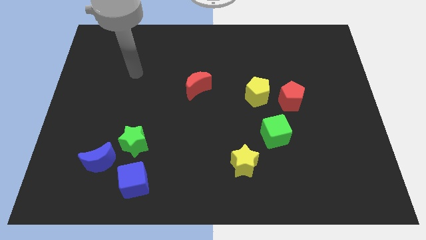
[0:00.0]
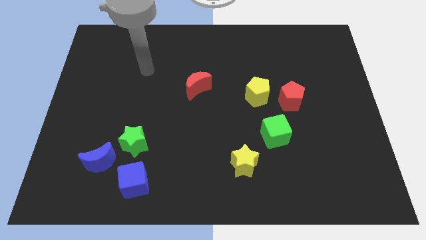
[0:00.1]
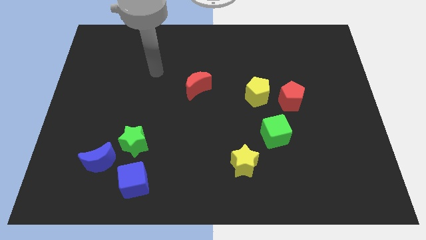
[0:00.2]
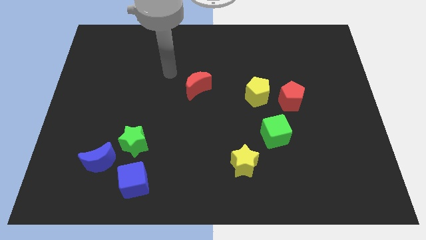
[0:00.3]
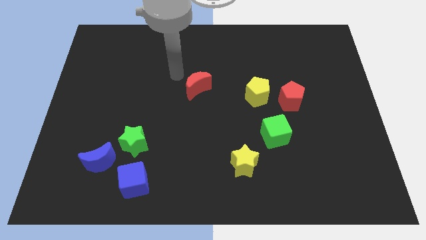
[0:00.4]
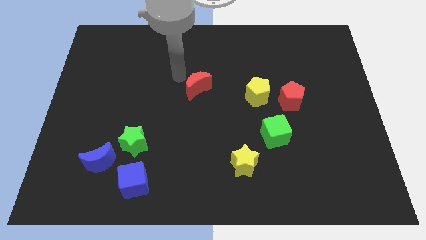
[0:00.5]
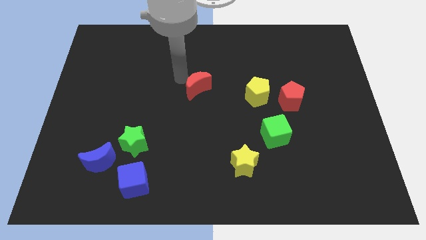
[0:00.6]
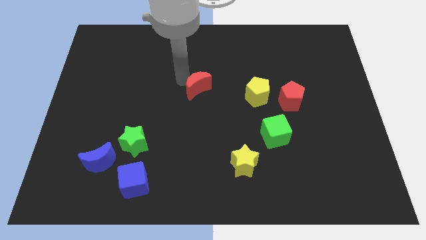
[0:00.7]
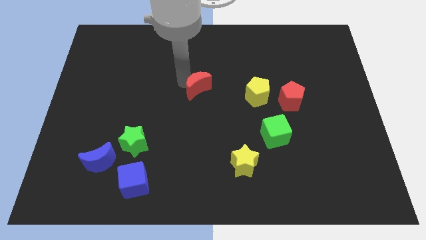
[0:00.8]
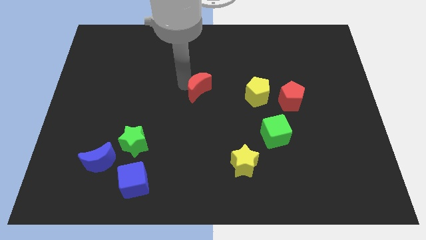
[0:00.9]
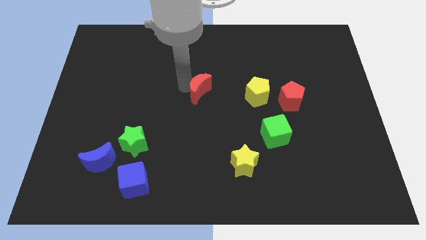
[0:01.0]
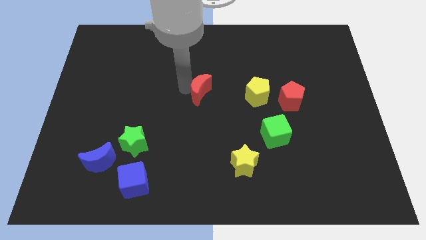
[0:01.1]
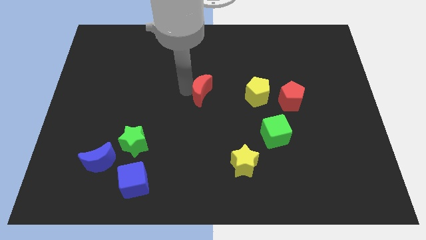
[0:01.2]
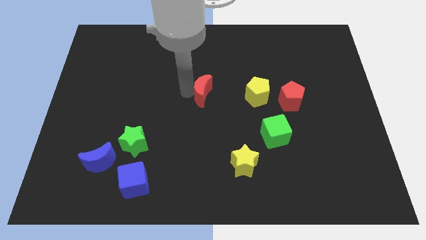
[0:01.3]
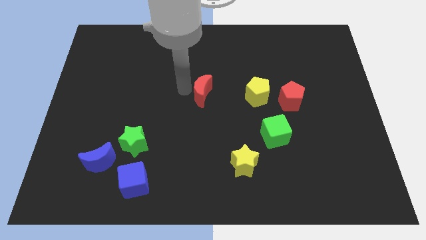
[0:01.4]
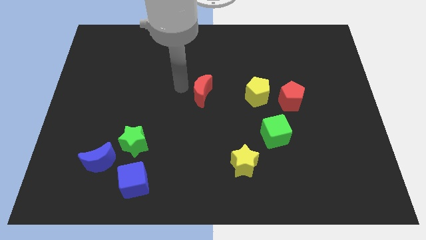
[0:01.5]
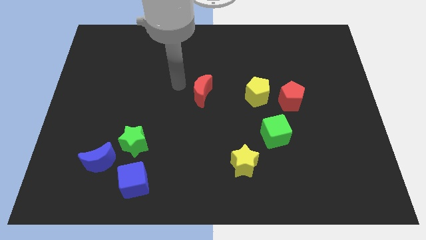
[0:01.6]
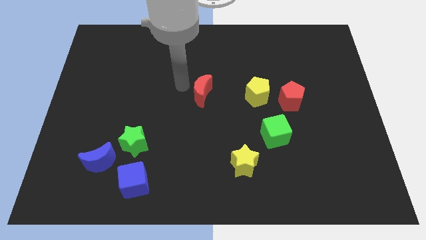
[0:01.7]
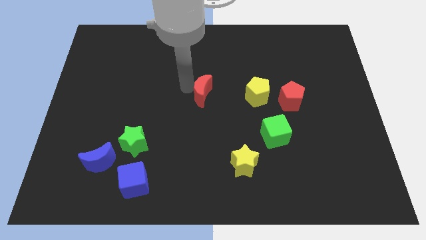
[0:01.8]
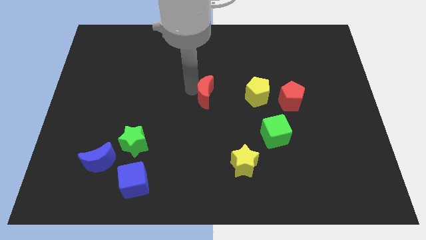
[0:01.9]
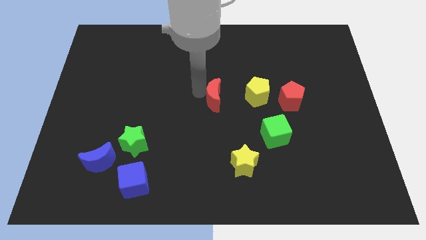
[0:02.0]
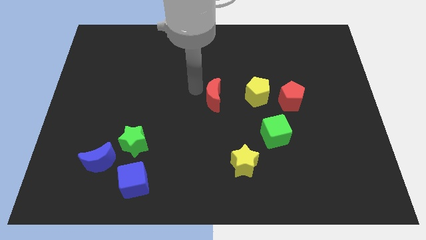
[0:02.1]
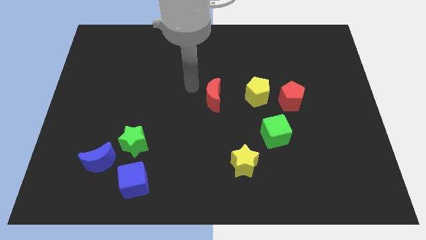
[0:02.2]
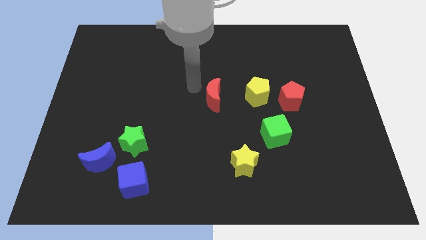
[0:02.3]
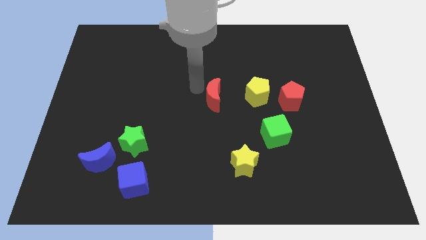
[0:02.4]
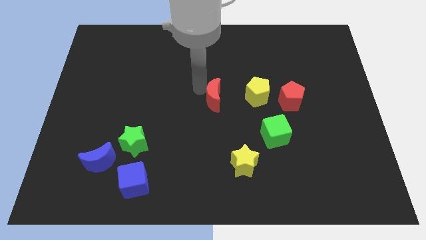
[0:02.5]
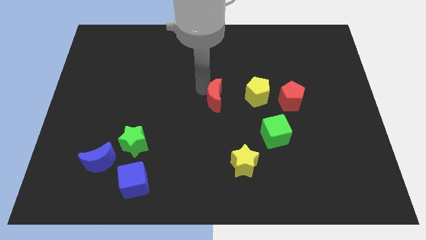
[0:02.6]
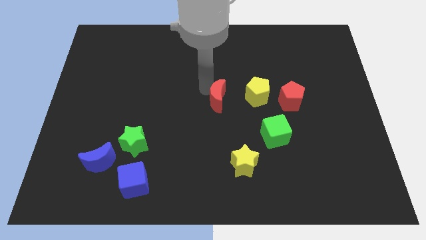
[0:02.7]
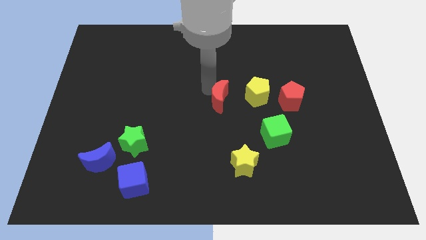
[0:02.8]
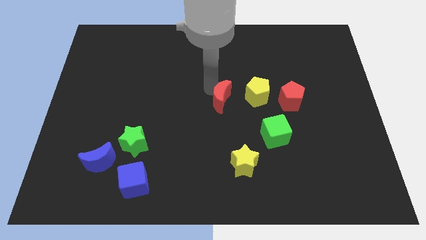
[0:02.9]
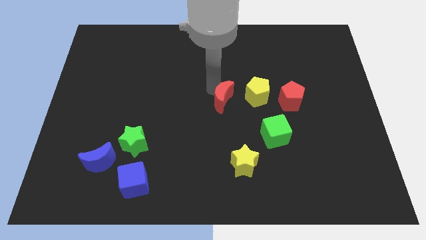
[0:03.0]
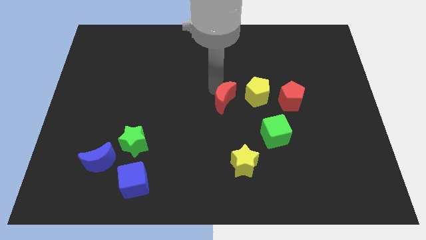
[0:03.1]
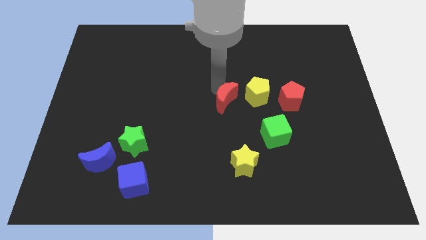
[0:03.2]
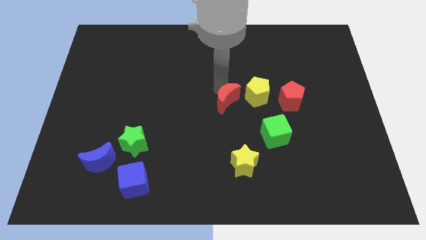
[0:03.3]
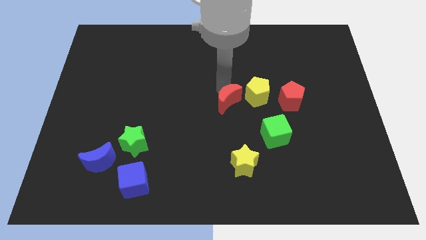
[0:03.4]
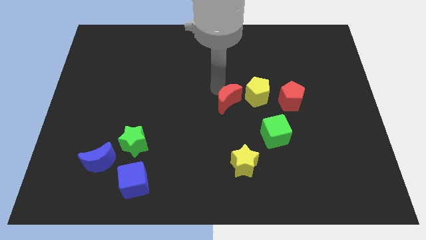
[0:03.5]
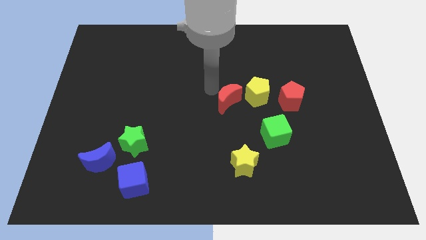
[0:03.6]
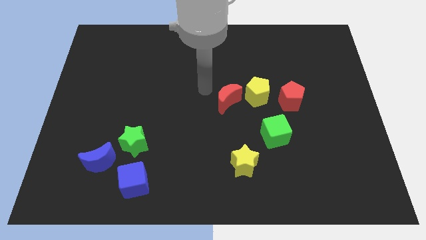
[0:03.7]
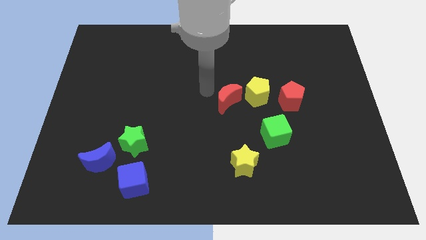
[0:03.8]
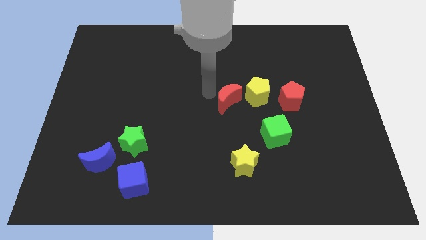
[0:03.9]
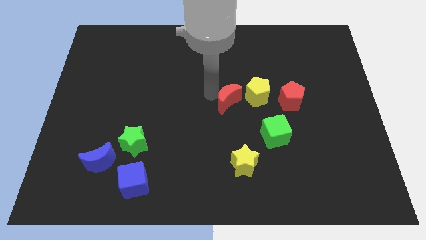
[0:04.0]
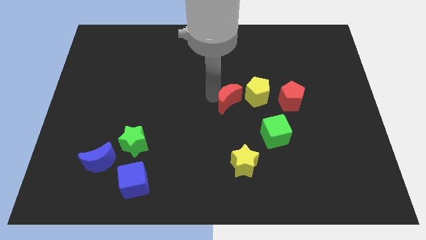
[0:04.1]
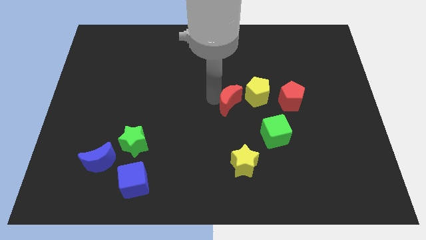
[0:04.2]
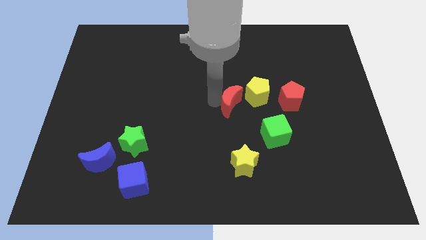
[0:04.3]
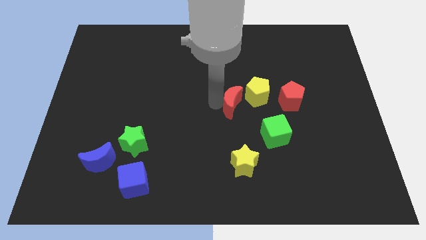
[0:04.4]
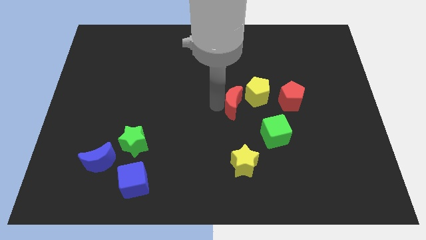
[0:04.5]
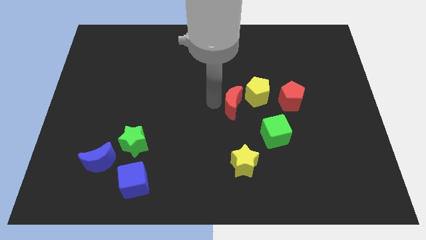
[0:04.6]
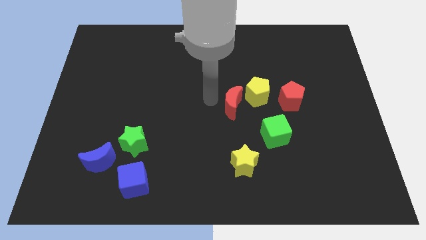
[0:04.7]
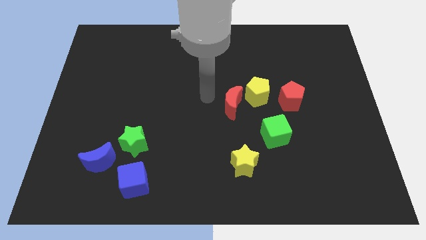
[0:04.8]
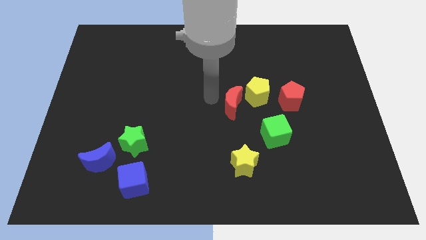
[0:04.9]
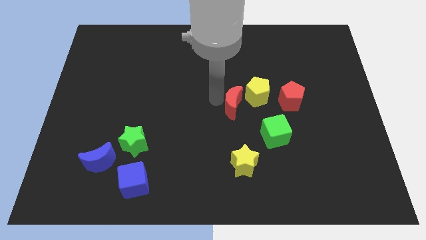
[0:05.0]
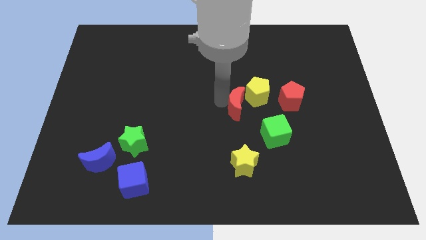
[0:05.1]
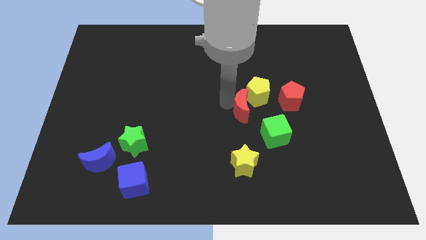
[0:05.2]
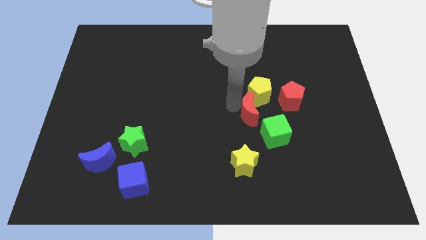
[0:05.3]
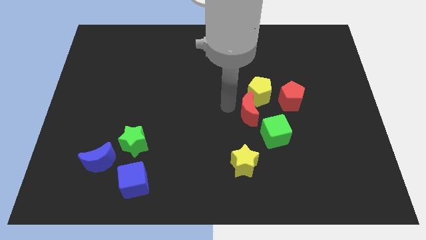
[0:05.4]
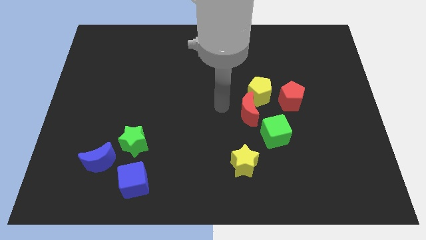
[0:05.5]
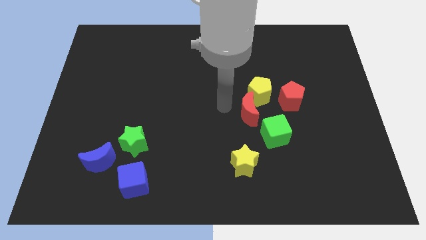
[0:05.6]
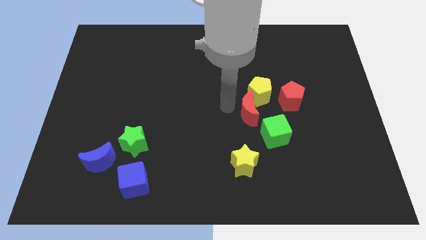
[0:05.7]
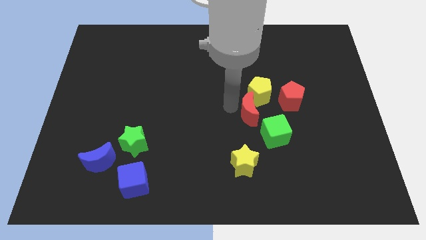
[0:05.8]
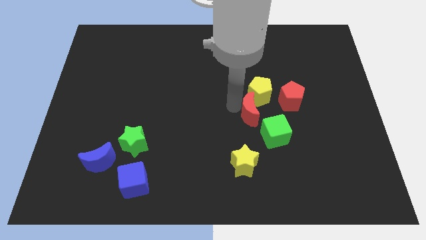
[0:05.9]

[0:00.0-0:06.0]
slide the red moon diagonally down and to the left of the red pentagon

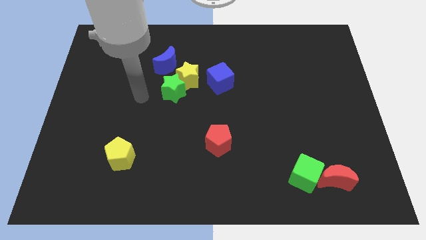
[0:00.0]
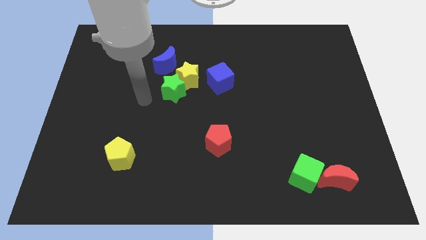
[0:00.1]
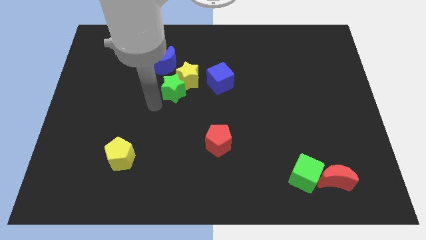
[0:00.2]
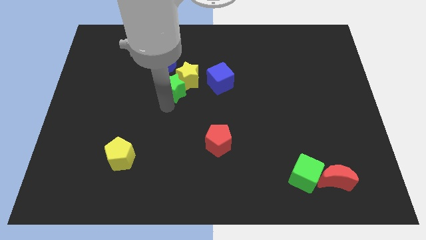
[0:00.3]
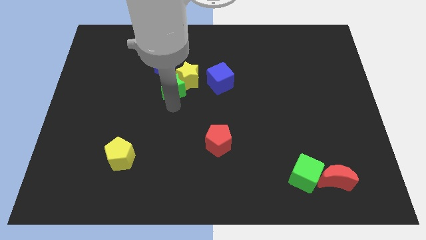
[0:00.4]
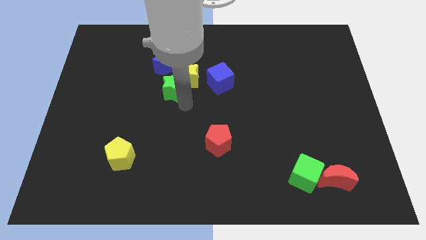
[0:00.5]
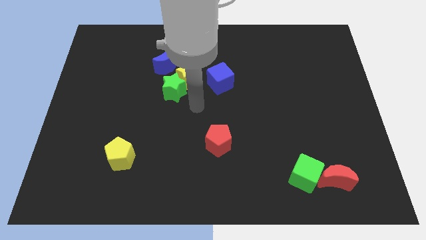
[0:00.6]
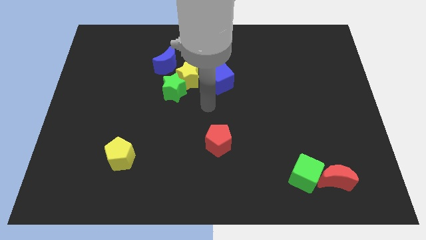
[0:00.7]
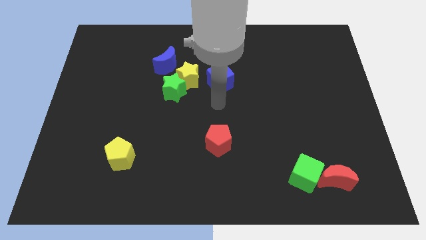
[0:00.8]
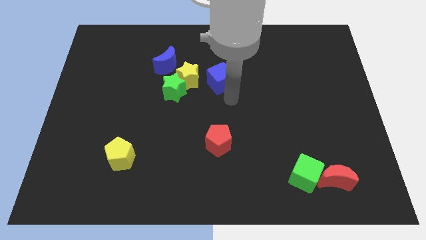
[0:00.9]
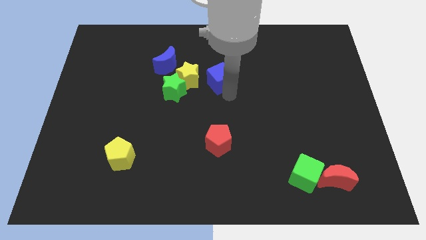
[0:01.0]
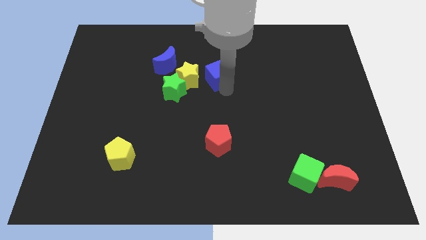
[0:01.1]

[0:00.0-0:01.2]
move the blue cube to the top right of the yellow star
